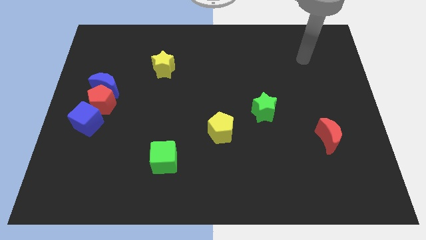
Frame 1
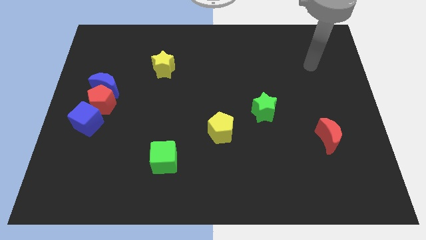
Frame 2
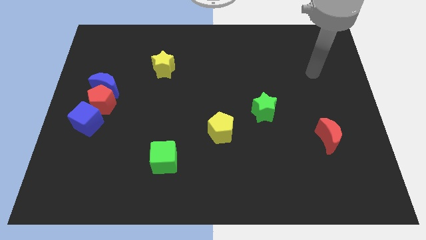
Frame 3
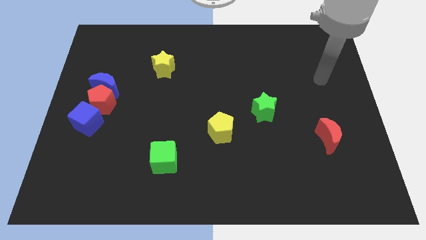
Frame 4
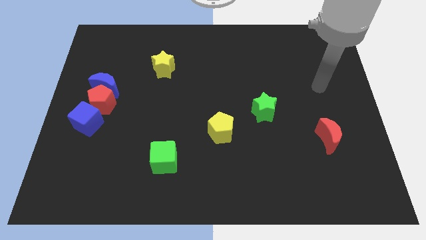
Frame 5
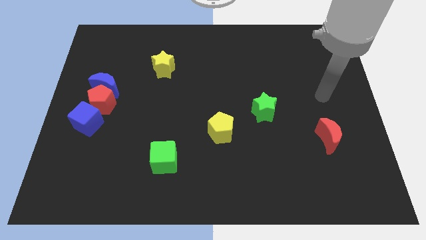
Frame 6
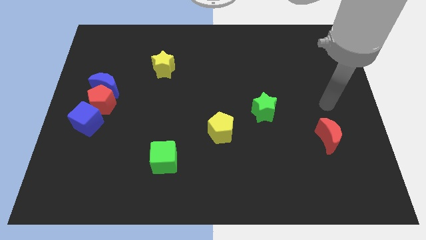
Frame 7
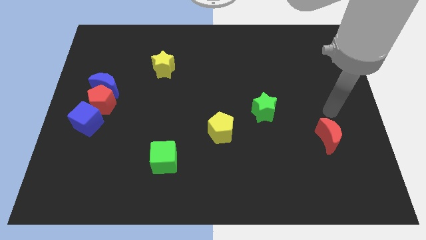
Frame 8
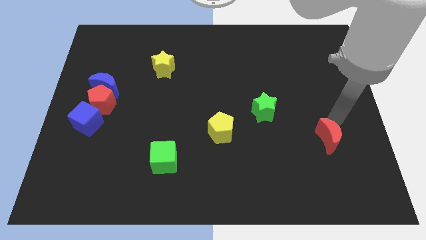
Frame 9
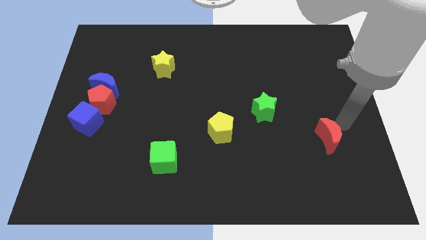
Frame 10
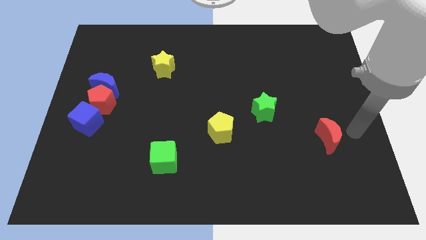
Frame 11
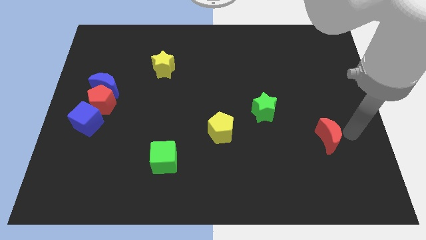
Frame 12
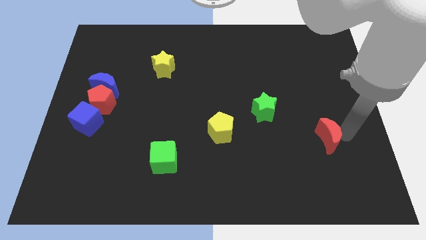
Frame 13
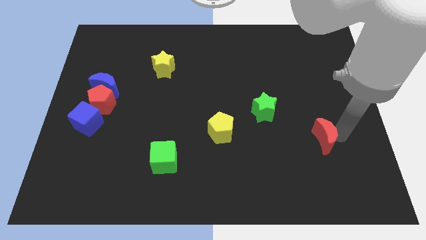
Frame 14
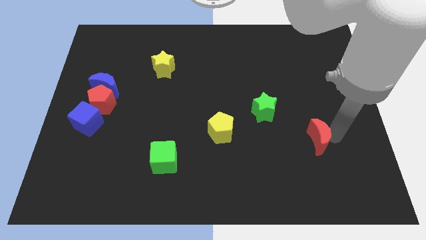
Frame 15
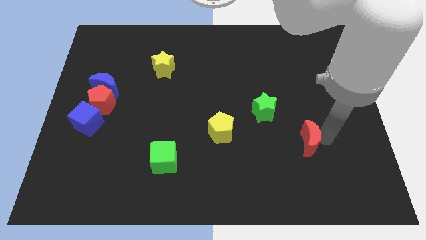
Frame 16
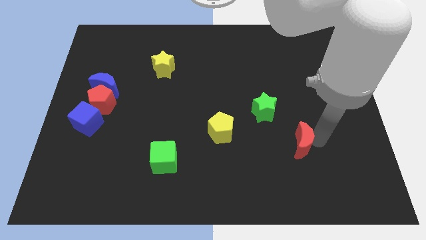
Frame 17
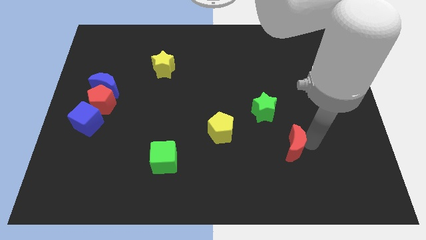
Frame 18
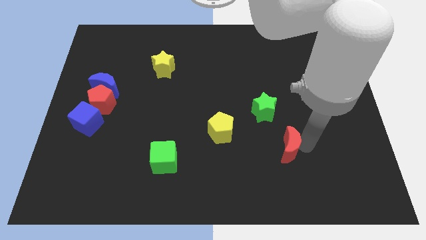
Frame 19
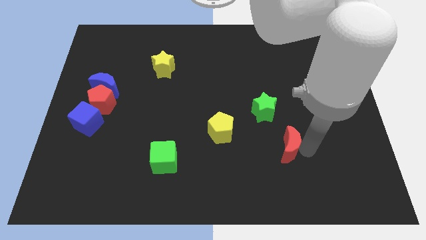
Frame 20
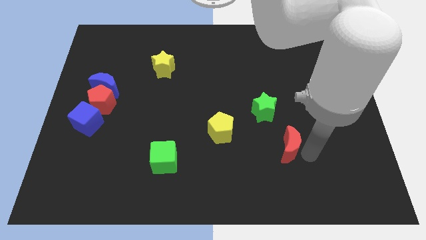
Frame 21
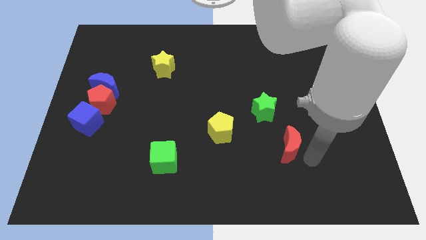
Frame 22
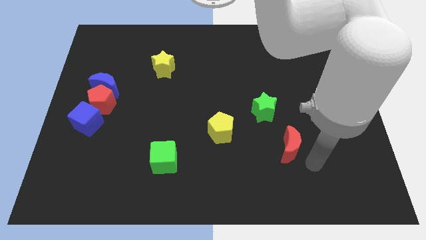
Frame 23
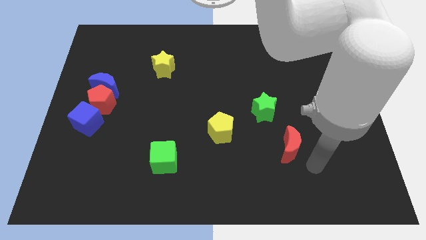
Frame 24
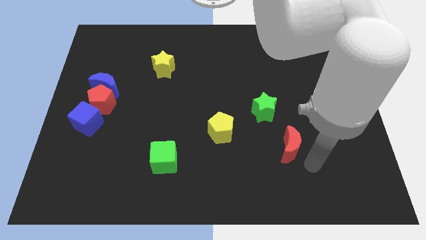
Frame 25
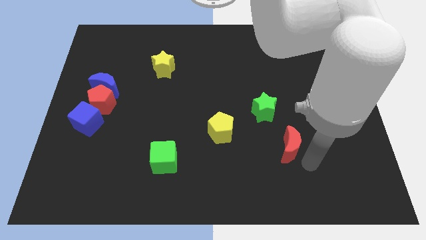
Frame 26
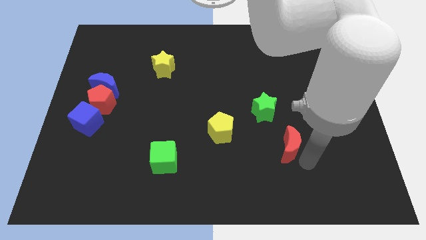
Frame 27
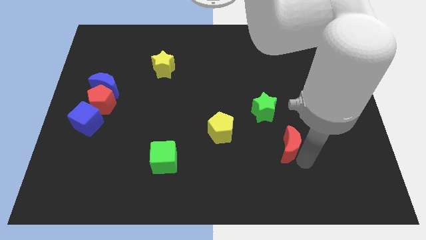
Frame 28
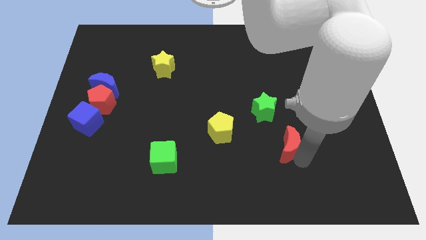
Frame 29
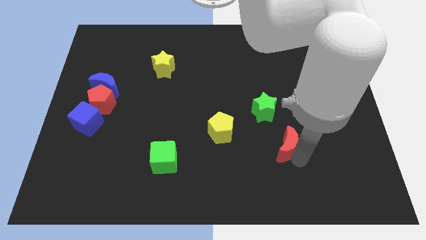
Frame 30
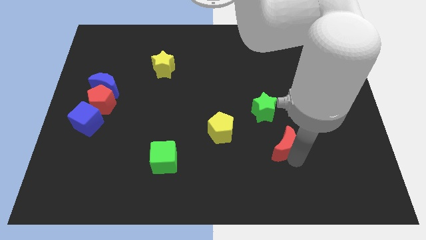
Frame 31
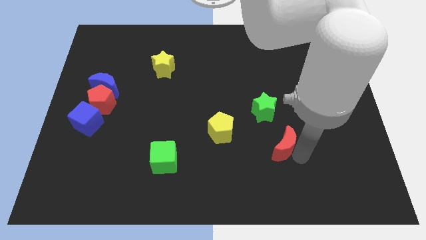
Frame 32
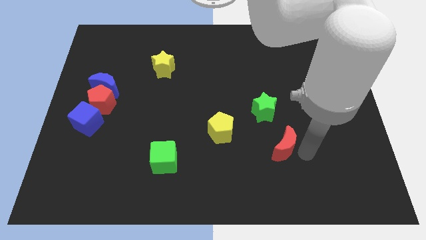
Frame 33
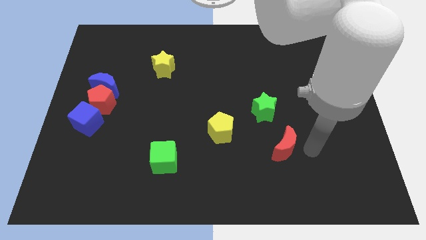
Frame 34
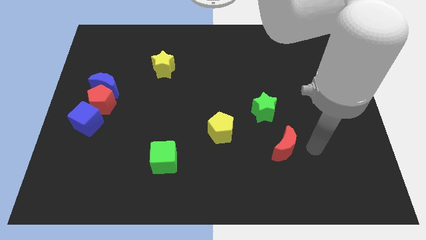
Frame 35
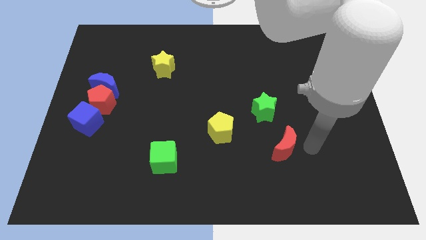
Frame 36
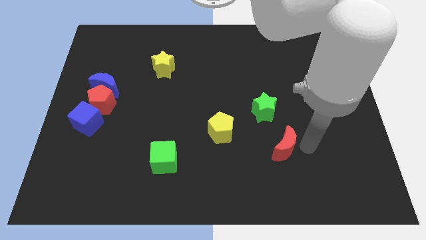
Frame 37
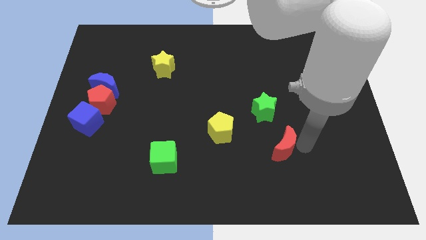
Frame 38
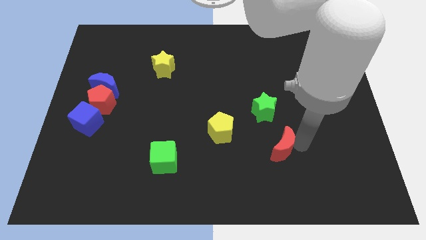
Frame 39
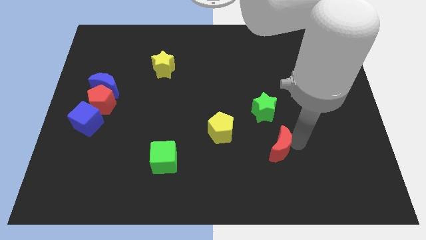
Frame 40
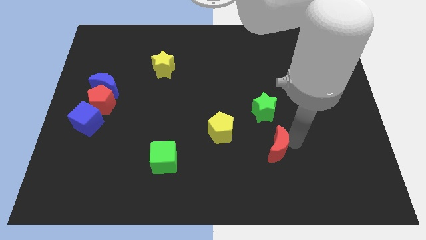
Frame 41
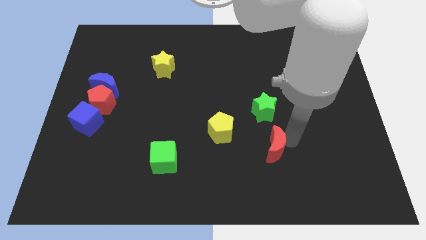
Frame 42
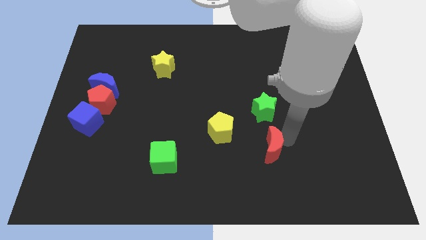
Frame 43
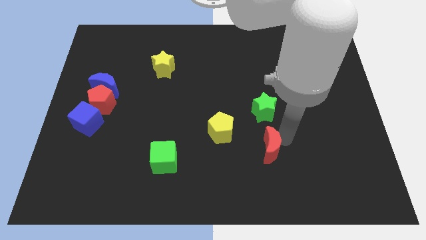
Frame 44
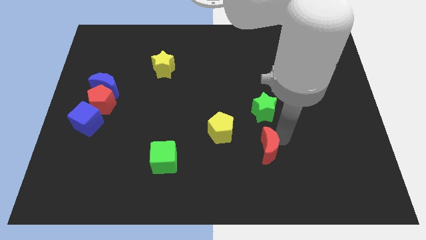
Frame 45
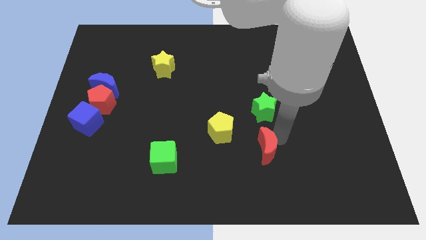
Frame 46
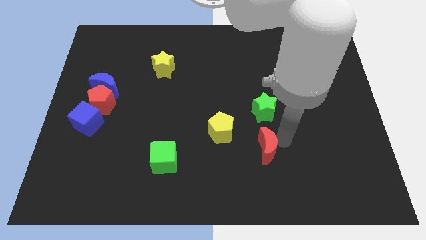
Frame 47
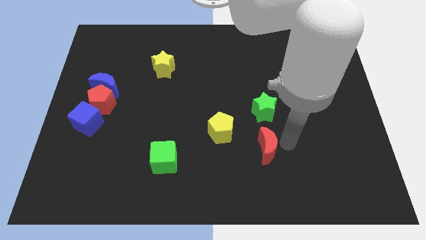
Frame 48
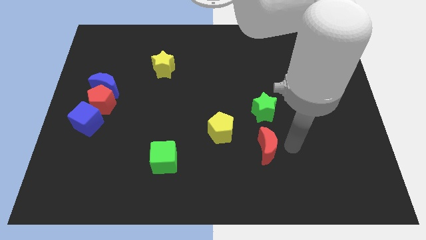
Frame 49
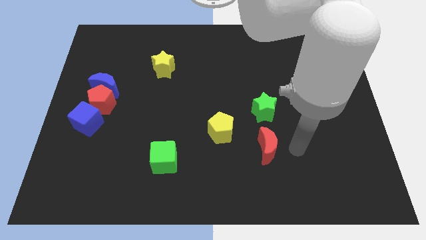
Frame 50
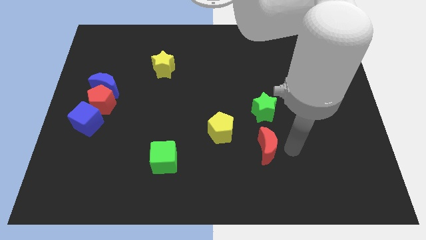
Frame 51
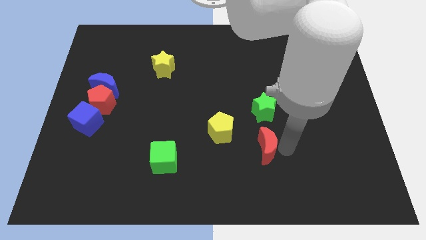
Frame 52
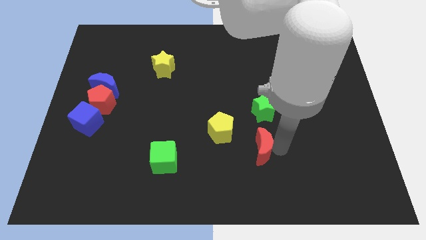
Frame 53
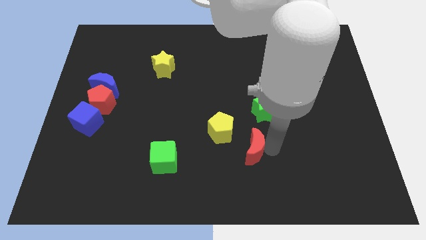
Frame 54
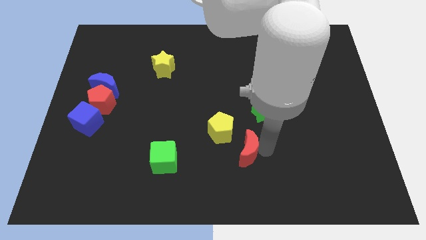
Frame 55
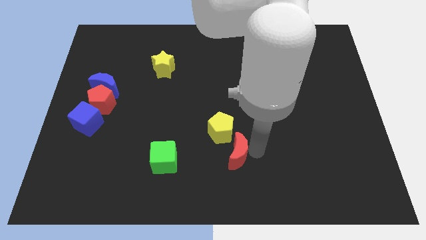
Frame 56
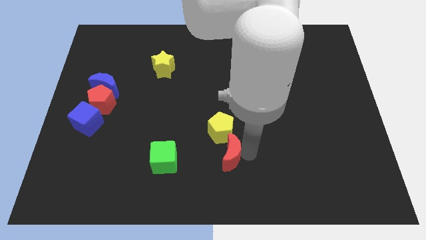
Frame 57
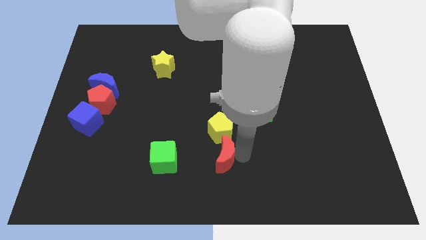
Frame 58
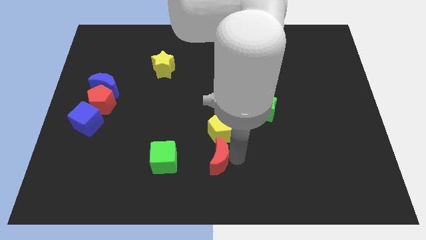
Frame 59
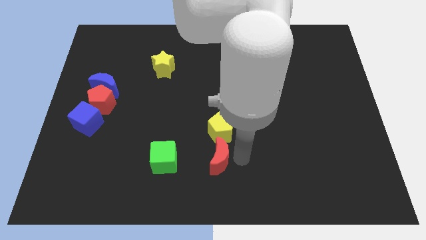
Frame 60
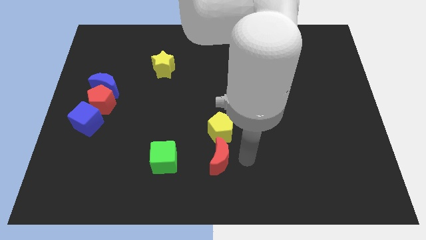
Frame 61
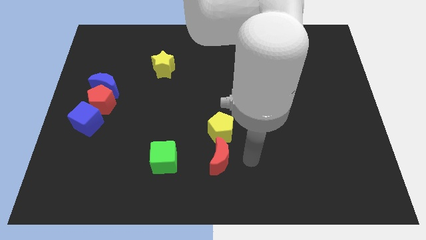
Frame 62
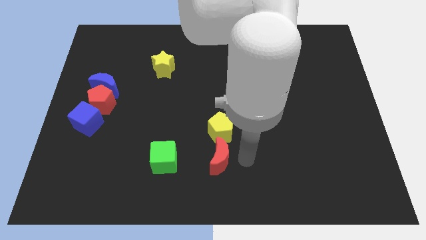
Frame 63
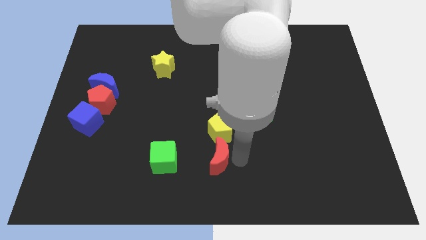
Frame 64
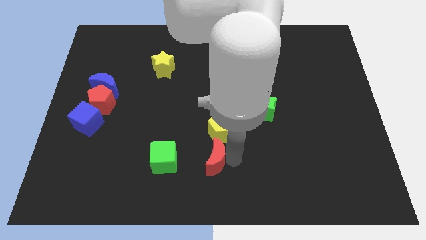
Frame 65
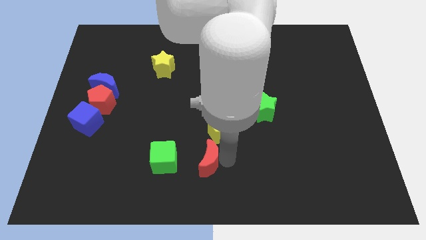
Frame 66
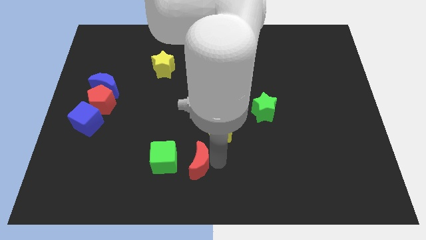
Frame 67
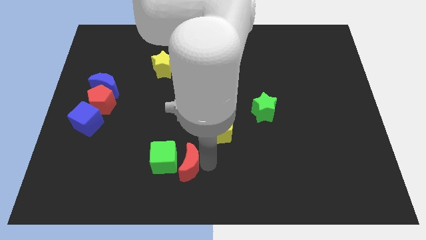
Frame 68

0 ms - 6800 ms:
slide the red moon to the green cube
